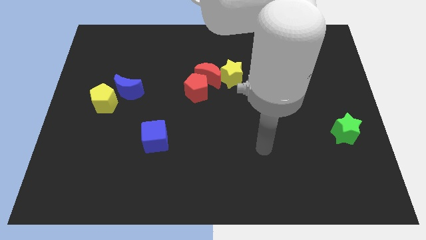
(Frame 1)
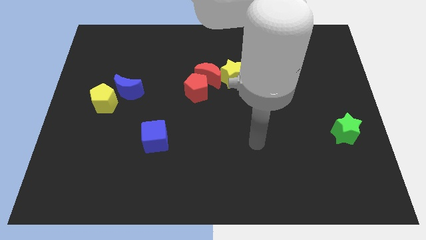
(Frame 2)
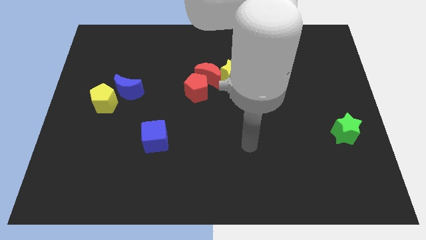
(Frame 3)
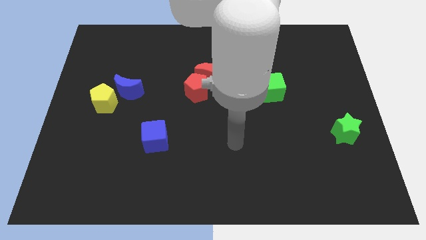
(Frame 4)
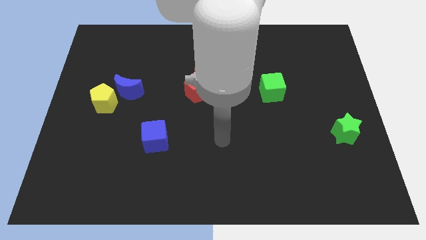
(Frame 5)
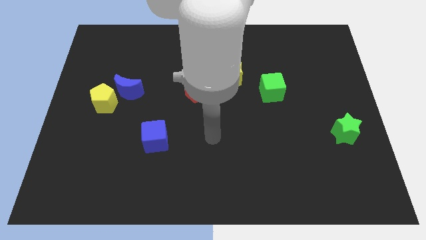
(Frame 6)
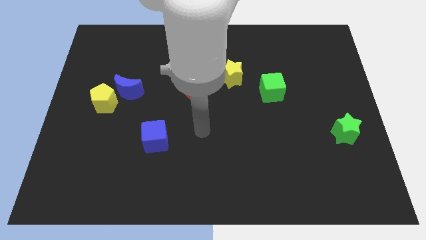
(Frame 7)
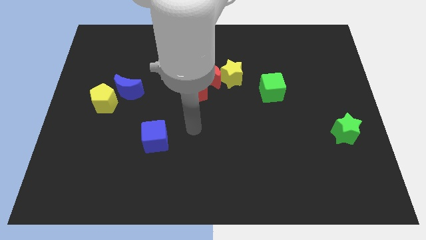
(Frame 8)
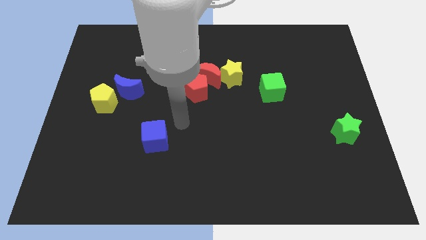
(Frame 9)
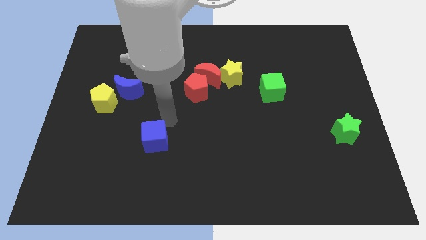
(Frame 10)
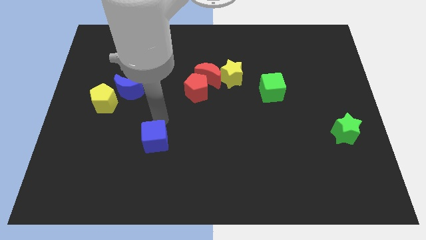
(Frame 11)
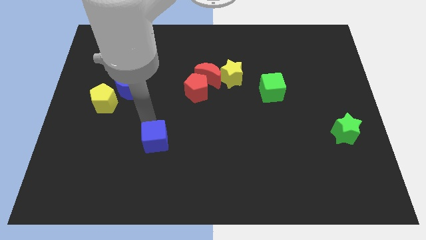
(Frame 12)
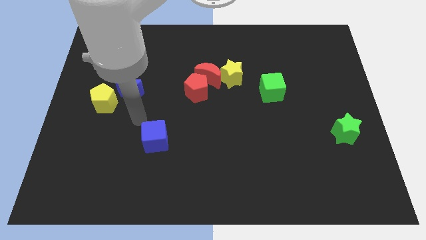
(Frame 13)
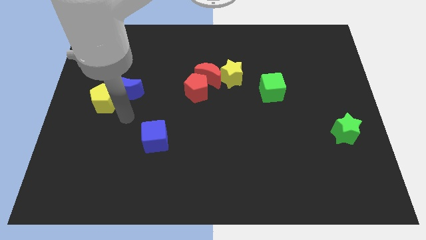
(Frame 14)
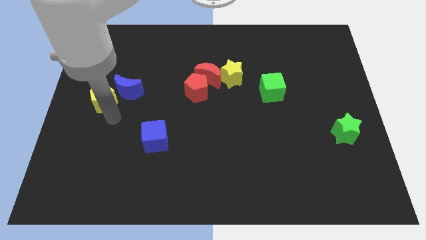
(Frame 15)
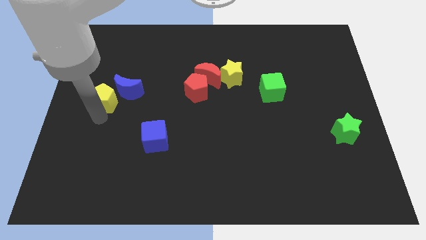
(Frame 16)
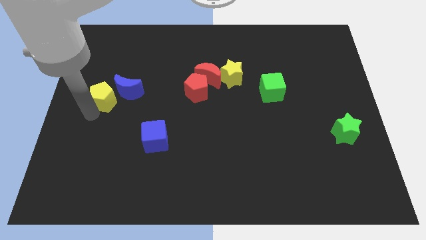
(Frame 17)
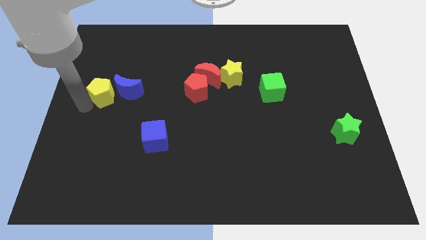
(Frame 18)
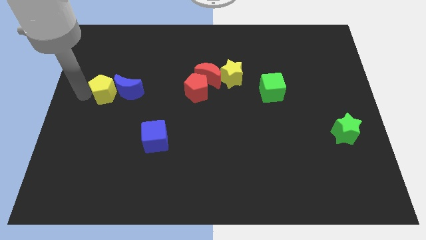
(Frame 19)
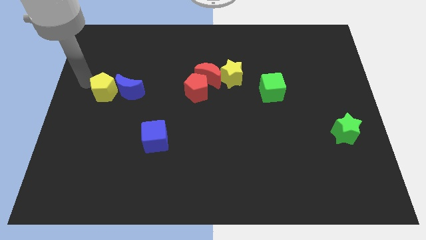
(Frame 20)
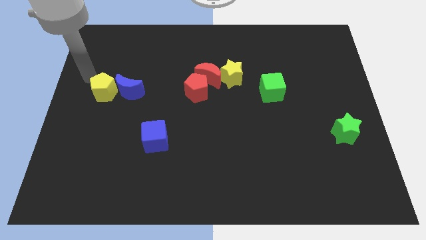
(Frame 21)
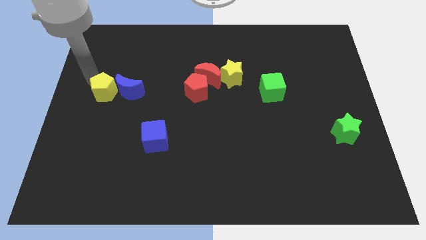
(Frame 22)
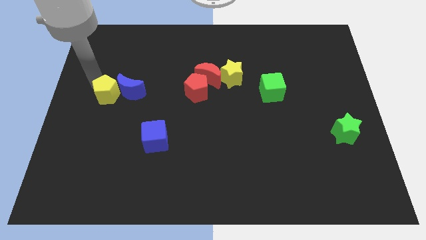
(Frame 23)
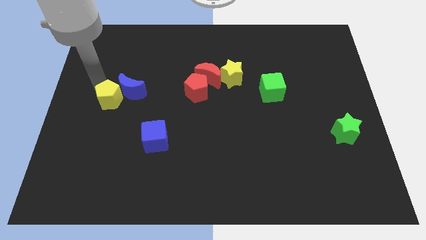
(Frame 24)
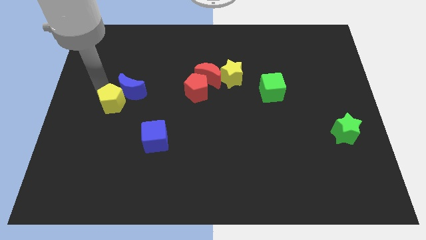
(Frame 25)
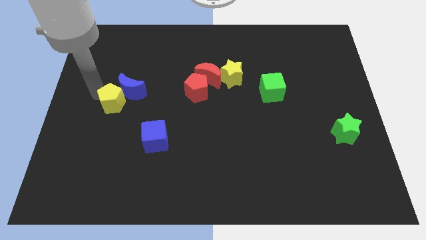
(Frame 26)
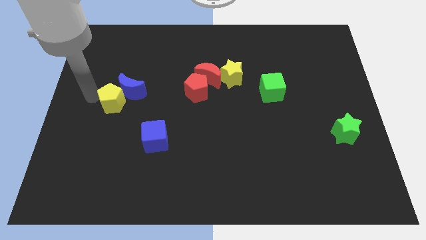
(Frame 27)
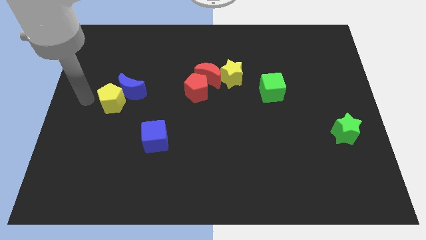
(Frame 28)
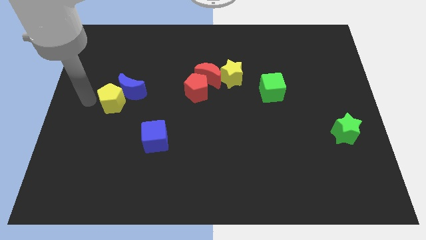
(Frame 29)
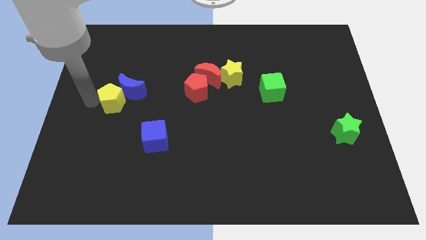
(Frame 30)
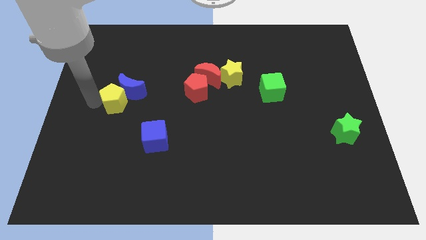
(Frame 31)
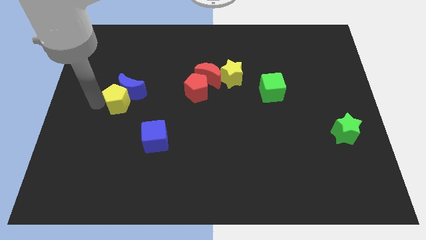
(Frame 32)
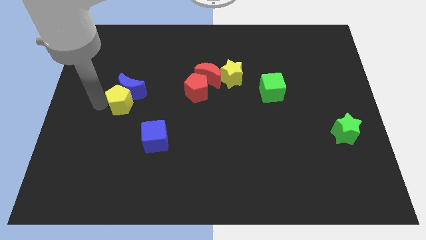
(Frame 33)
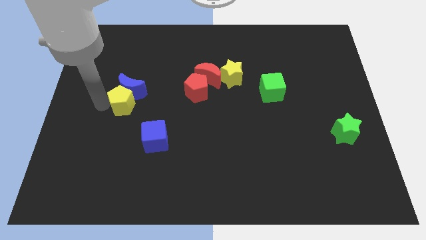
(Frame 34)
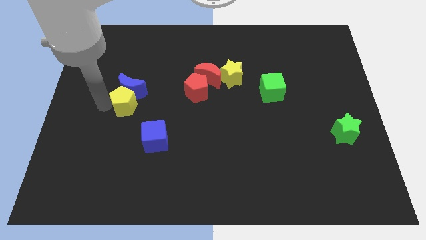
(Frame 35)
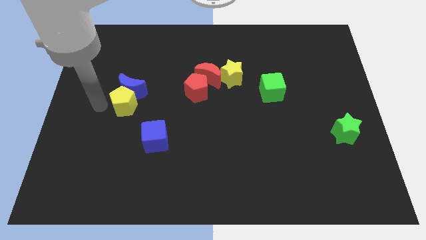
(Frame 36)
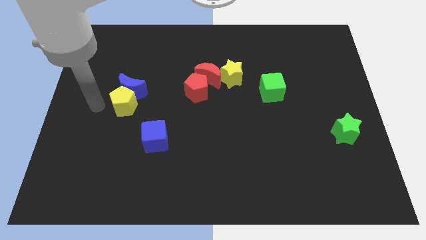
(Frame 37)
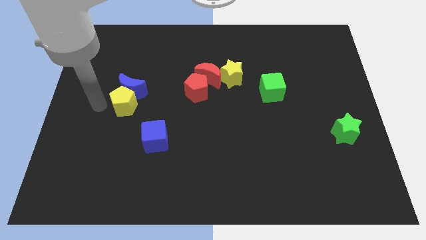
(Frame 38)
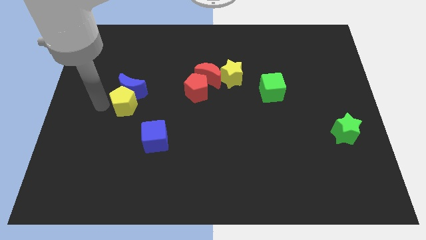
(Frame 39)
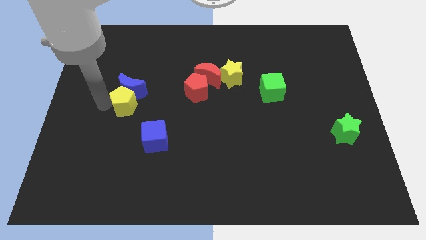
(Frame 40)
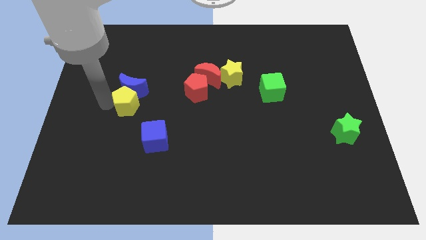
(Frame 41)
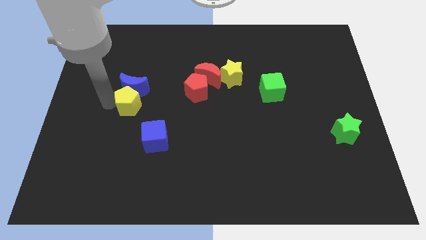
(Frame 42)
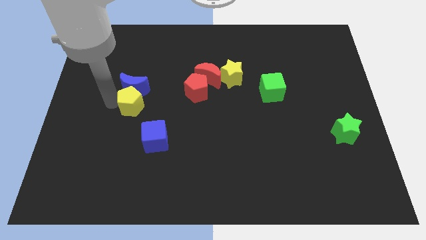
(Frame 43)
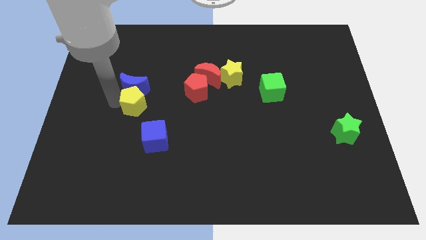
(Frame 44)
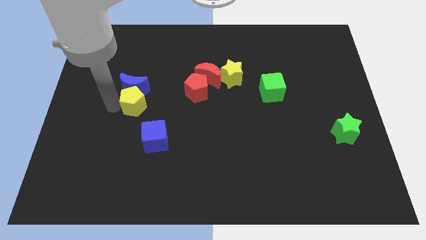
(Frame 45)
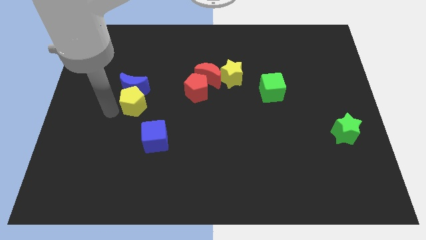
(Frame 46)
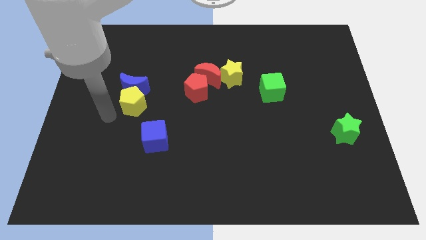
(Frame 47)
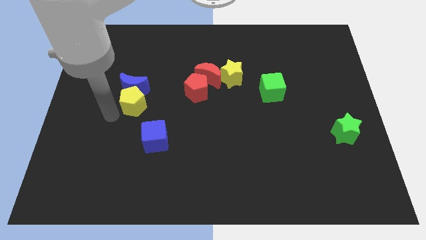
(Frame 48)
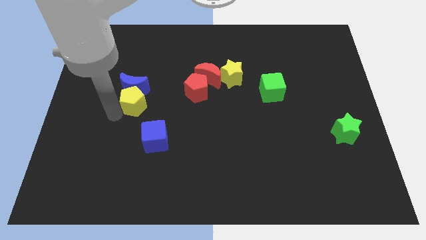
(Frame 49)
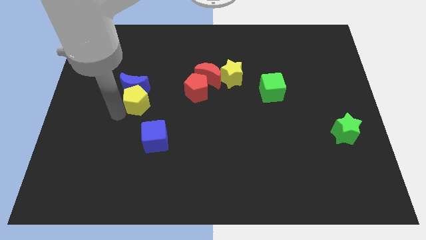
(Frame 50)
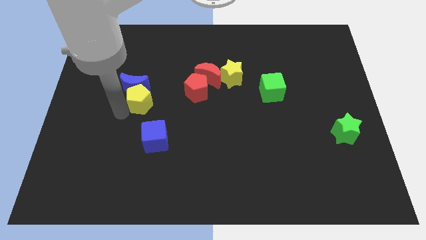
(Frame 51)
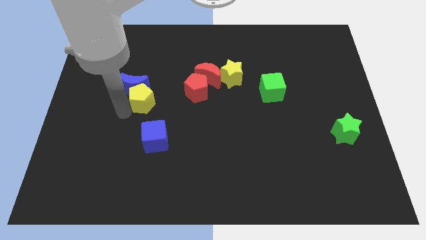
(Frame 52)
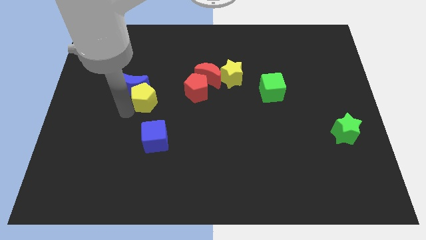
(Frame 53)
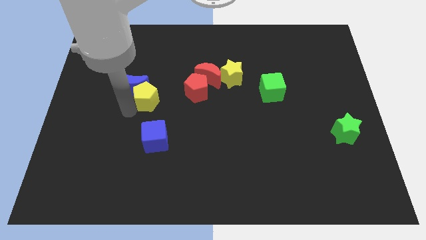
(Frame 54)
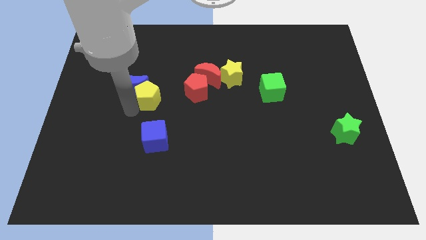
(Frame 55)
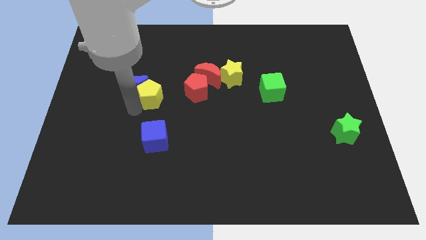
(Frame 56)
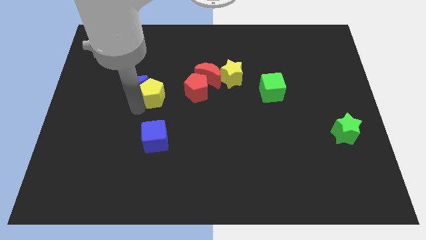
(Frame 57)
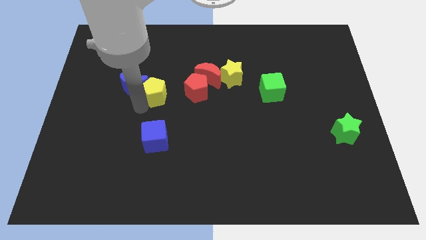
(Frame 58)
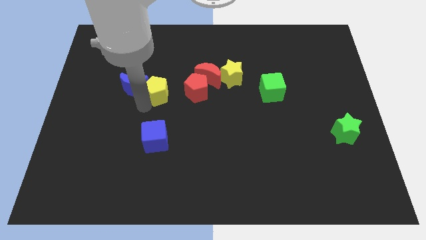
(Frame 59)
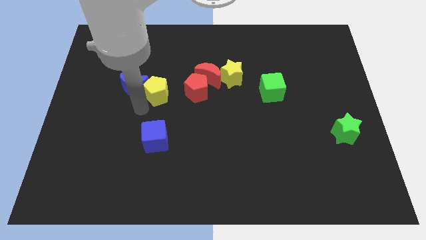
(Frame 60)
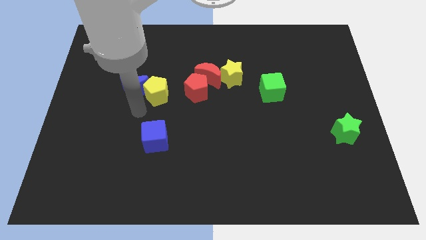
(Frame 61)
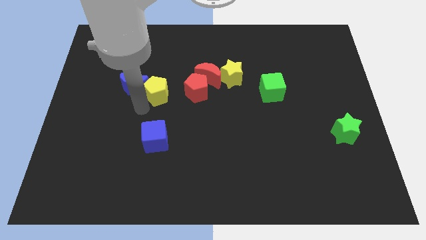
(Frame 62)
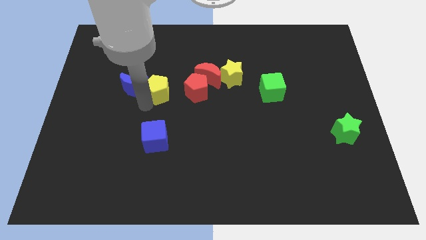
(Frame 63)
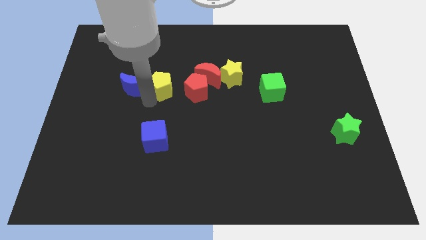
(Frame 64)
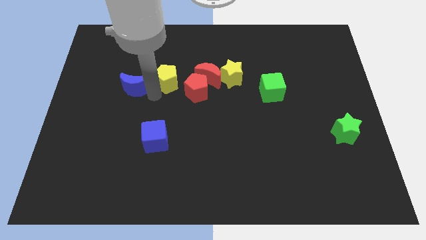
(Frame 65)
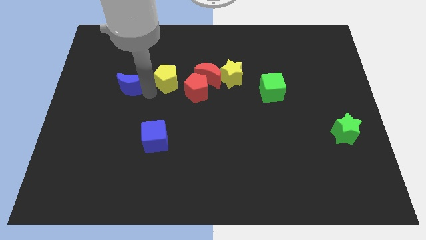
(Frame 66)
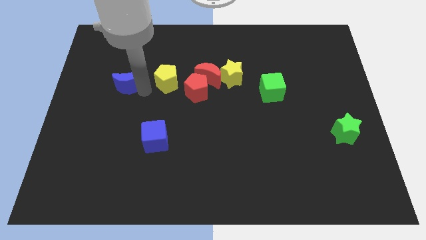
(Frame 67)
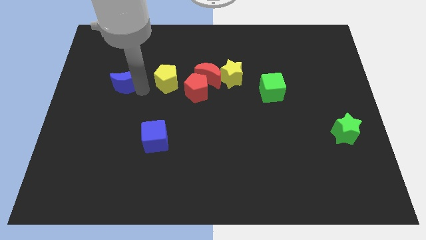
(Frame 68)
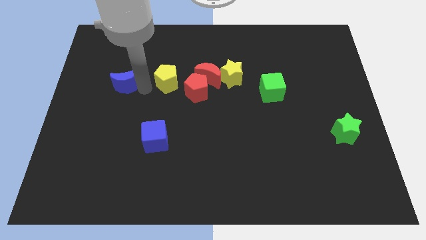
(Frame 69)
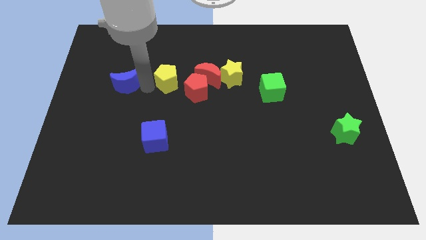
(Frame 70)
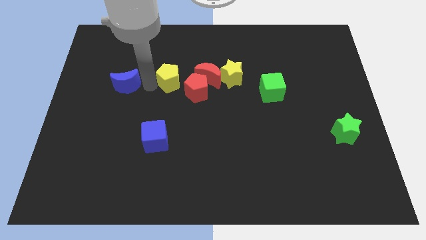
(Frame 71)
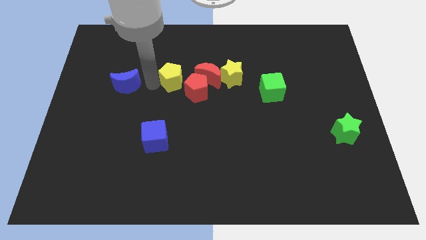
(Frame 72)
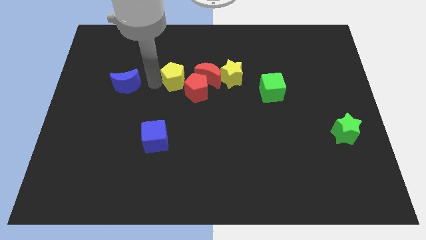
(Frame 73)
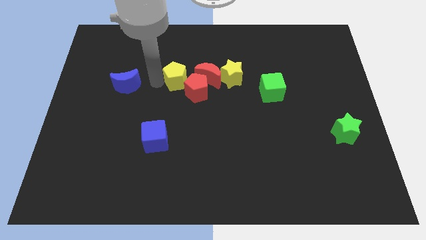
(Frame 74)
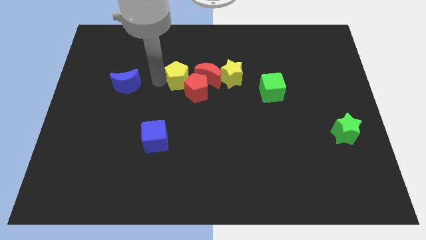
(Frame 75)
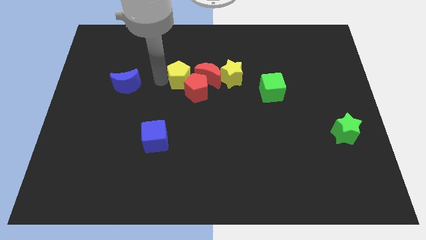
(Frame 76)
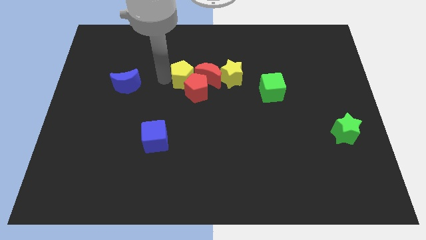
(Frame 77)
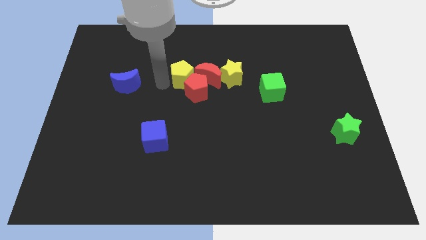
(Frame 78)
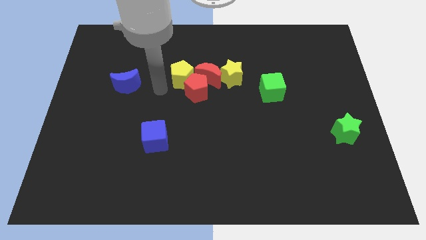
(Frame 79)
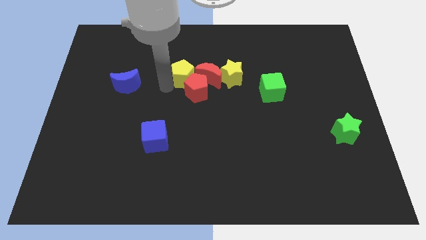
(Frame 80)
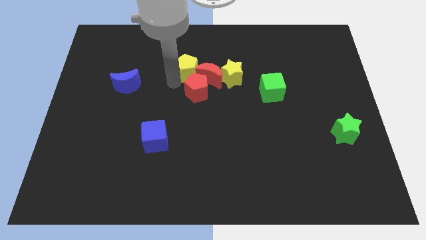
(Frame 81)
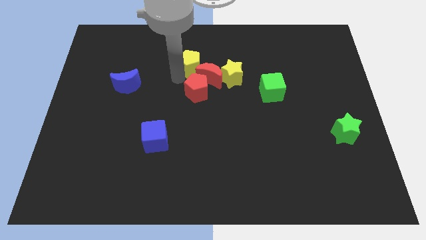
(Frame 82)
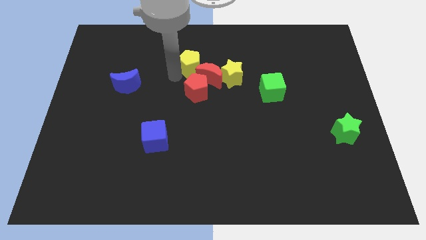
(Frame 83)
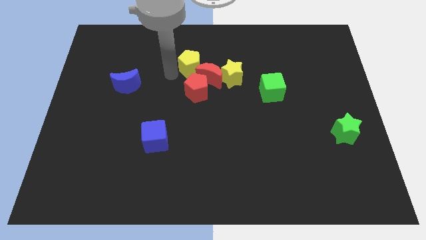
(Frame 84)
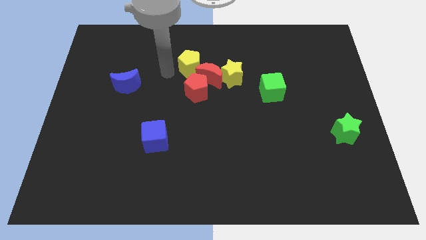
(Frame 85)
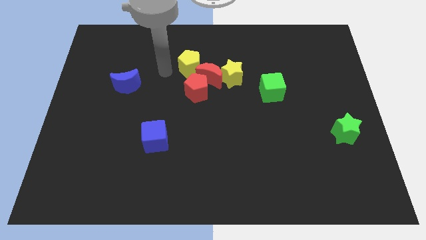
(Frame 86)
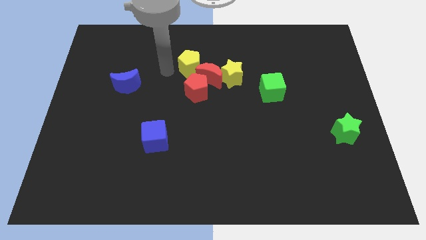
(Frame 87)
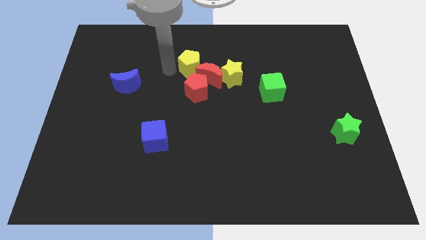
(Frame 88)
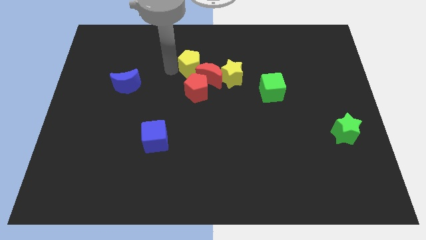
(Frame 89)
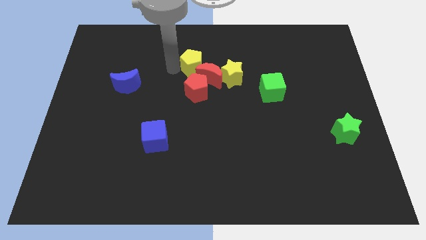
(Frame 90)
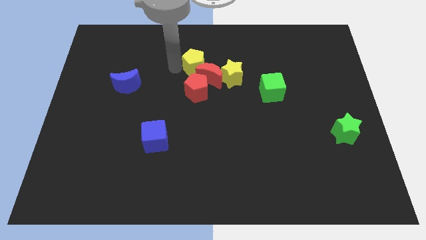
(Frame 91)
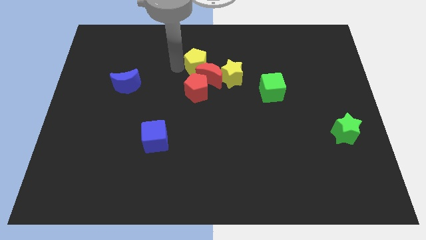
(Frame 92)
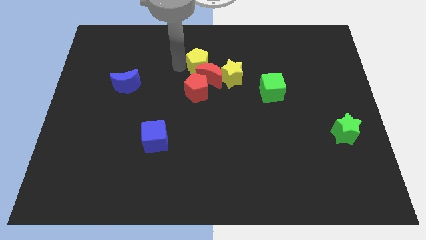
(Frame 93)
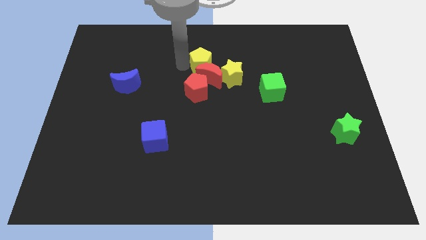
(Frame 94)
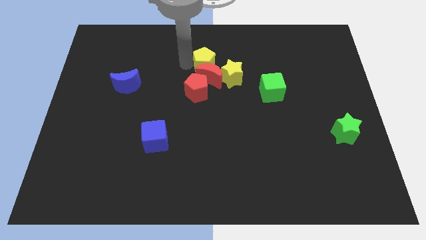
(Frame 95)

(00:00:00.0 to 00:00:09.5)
put the yellow pentagon to the top right of the red moon
